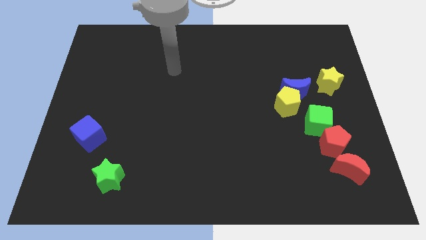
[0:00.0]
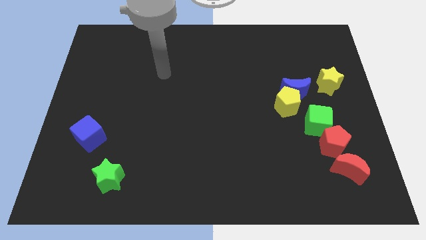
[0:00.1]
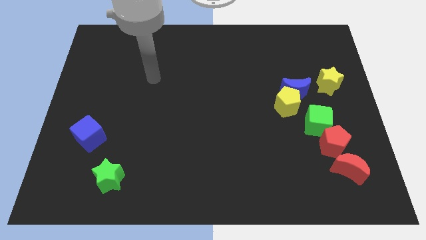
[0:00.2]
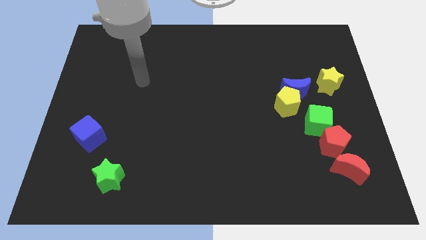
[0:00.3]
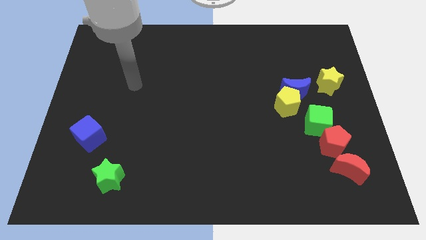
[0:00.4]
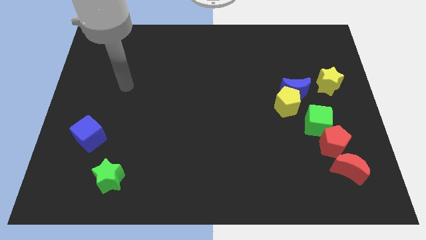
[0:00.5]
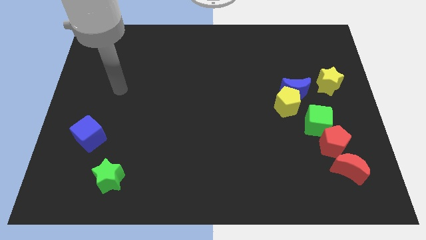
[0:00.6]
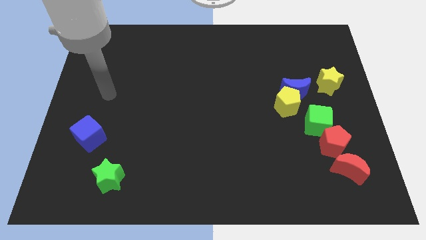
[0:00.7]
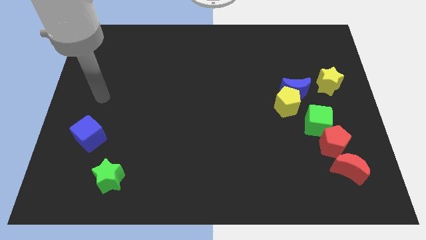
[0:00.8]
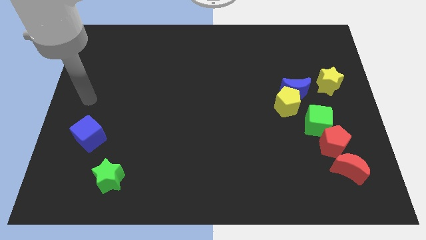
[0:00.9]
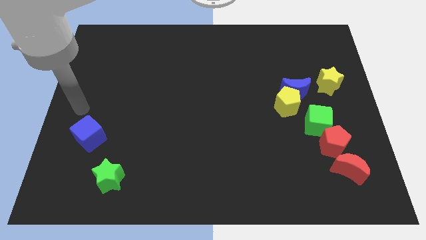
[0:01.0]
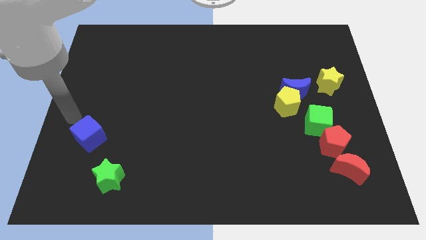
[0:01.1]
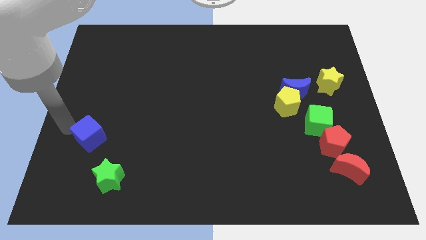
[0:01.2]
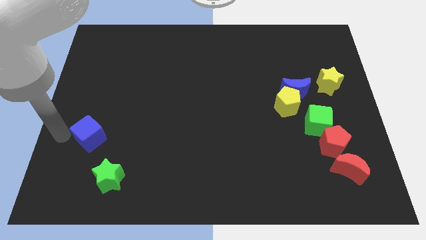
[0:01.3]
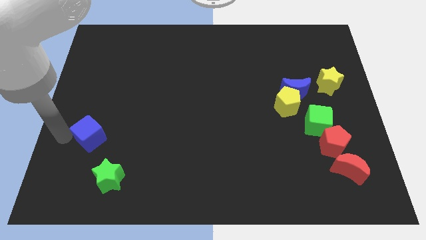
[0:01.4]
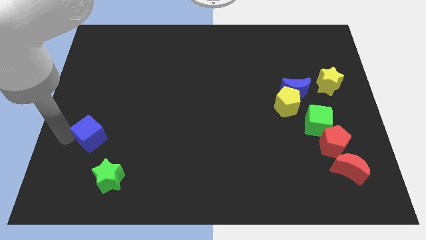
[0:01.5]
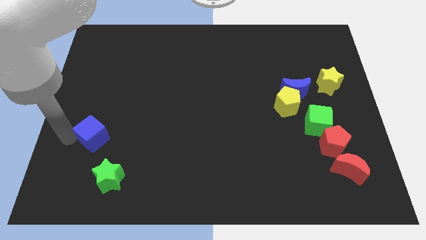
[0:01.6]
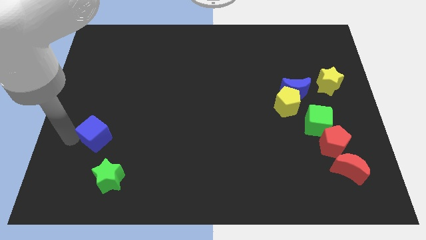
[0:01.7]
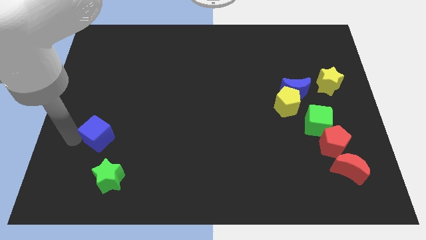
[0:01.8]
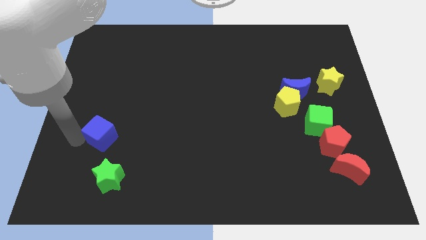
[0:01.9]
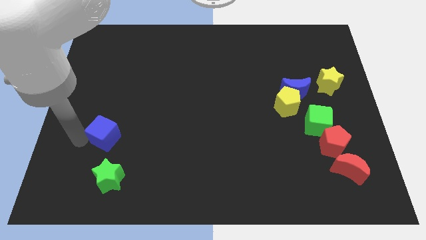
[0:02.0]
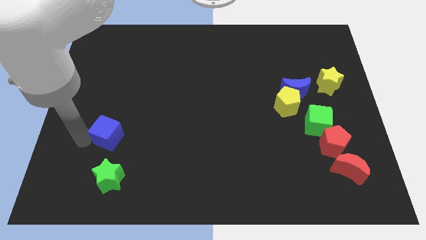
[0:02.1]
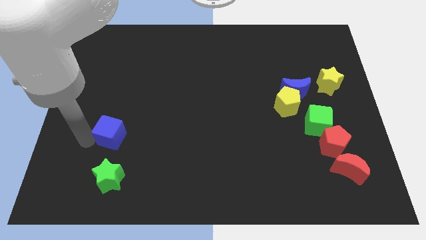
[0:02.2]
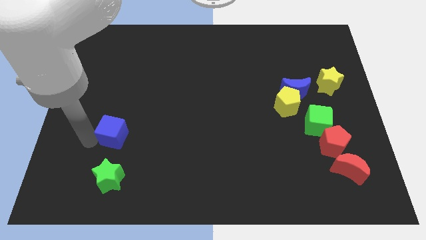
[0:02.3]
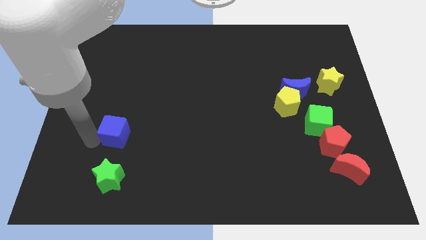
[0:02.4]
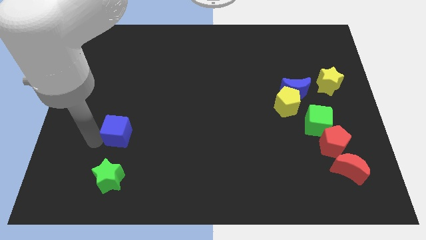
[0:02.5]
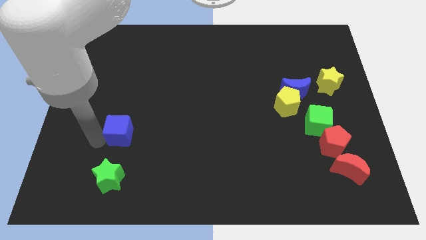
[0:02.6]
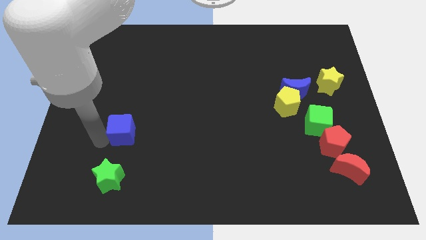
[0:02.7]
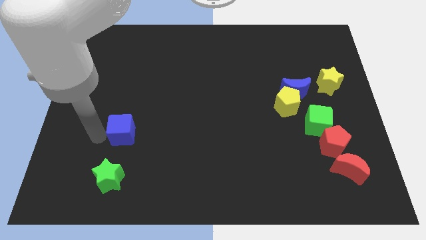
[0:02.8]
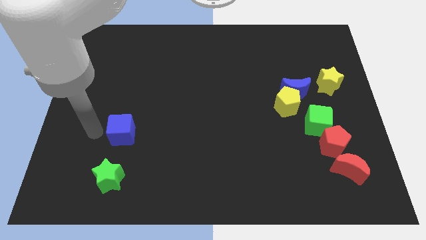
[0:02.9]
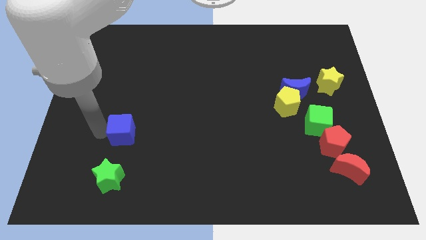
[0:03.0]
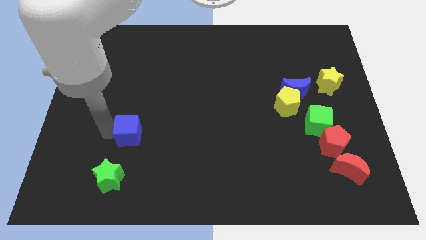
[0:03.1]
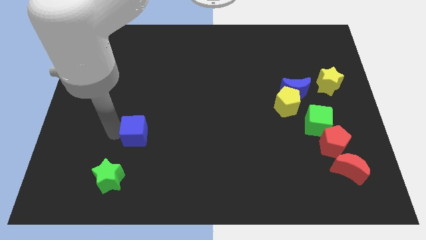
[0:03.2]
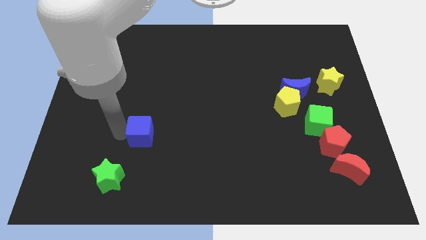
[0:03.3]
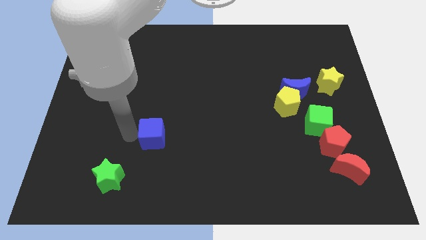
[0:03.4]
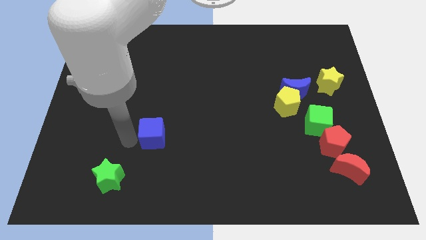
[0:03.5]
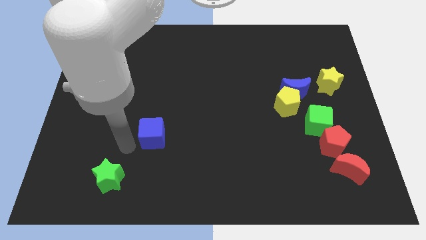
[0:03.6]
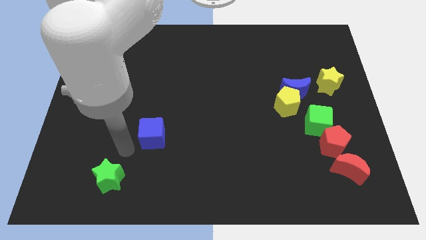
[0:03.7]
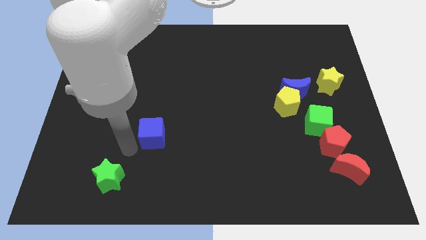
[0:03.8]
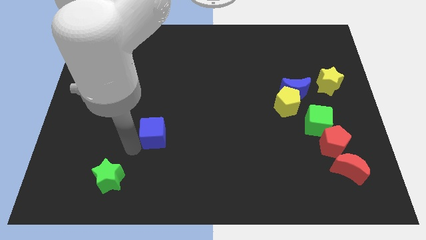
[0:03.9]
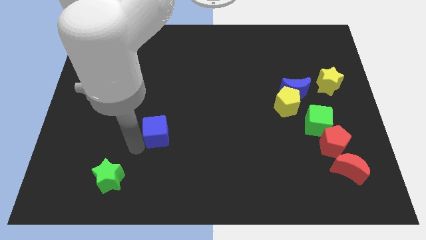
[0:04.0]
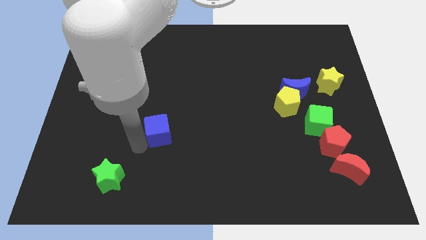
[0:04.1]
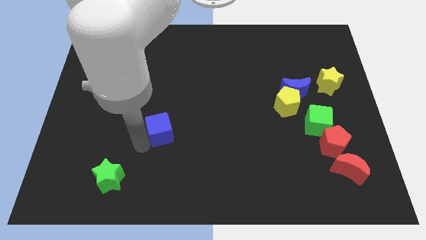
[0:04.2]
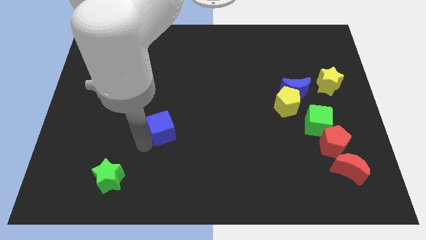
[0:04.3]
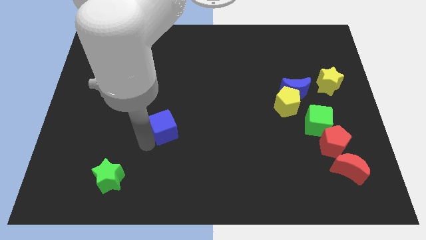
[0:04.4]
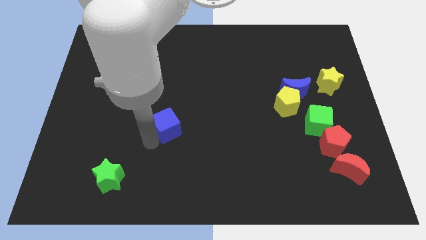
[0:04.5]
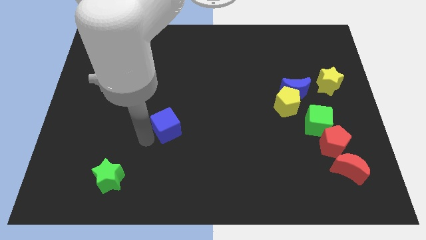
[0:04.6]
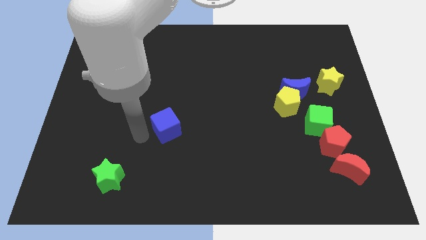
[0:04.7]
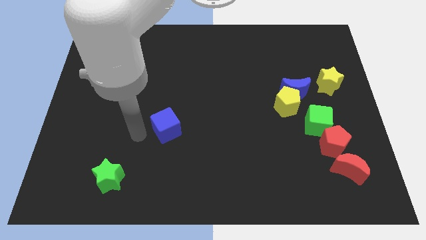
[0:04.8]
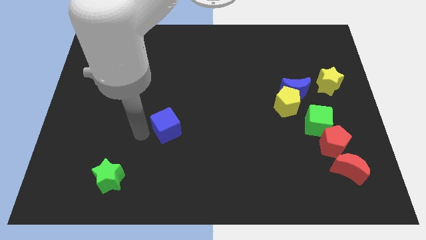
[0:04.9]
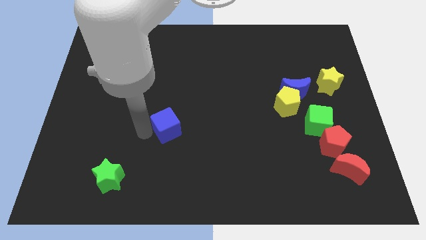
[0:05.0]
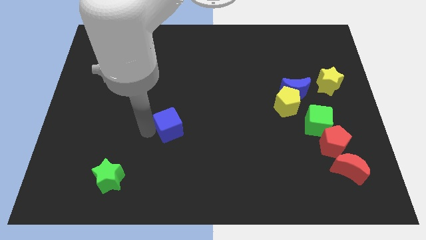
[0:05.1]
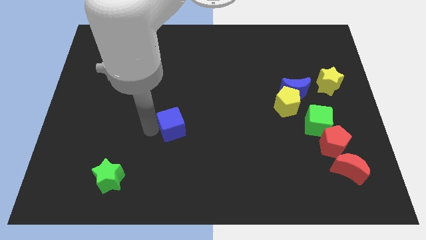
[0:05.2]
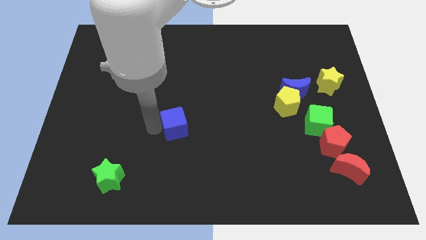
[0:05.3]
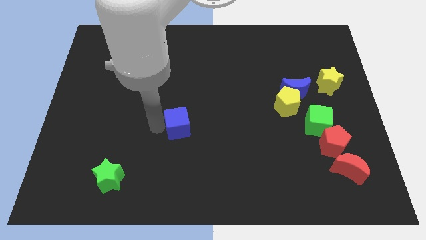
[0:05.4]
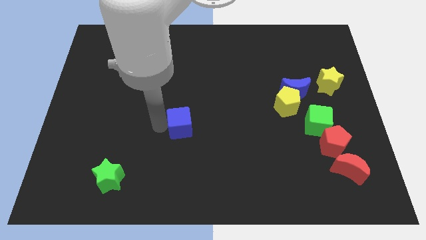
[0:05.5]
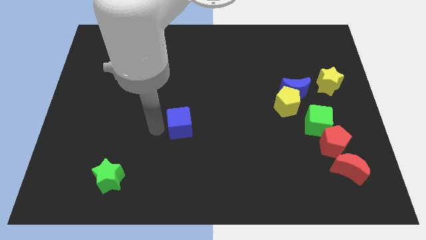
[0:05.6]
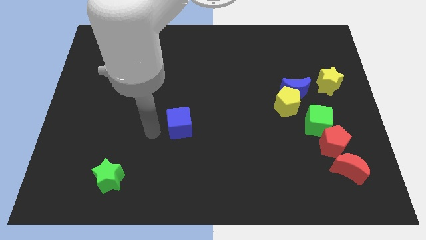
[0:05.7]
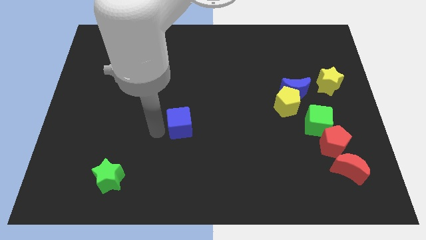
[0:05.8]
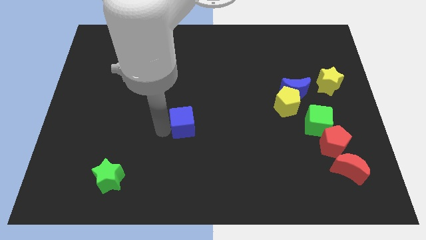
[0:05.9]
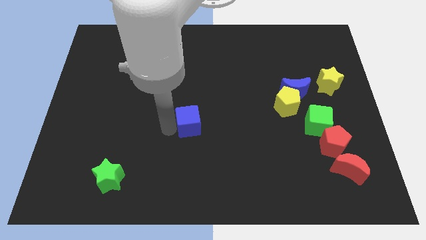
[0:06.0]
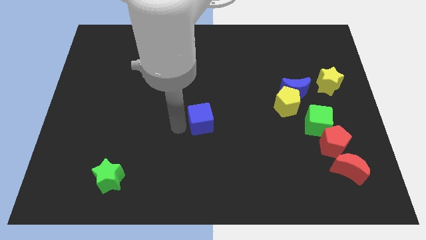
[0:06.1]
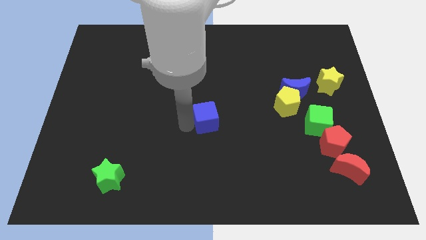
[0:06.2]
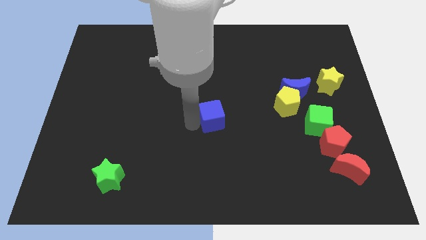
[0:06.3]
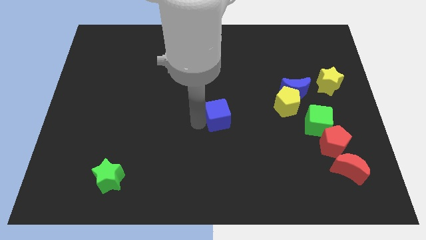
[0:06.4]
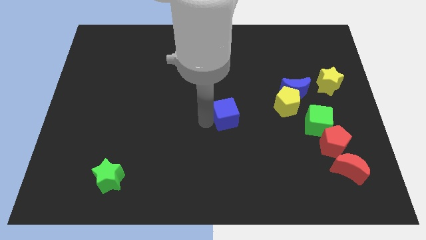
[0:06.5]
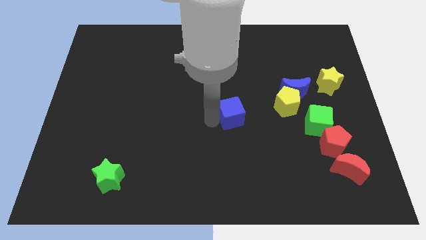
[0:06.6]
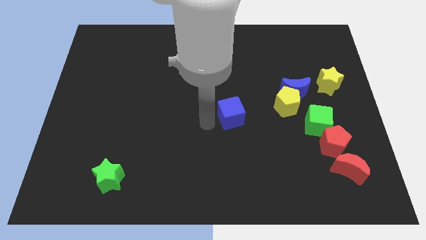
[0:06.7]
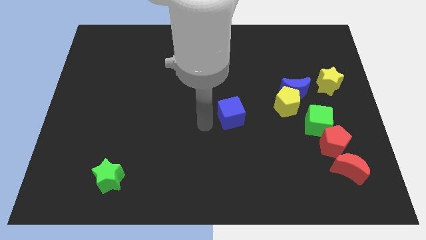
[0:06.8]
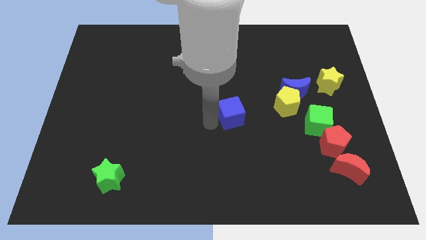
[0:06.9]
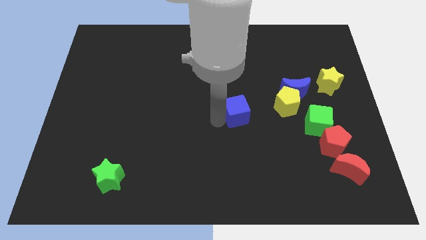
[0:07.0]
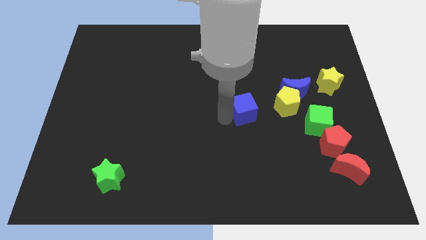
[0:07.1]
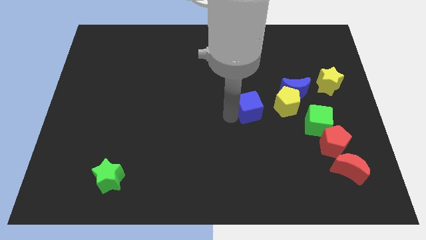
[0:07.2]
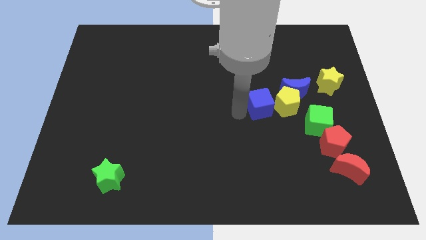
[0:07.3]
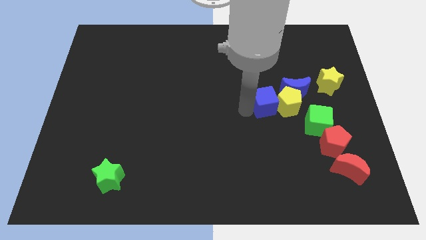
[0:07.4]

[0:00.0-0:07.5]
put the blue cube towards the yellow pentagon
